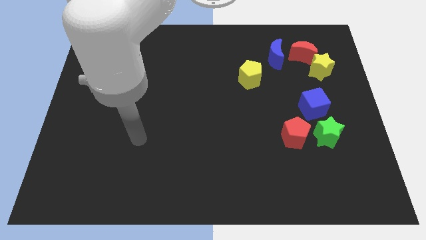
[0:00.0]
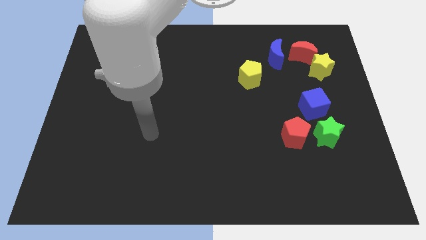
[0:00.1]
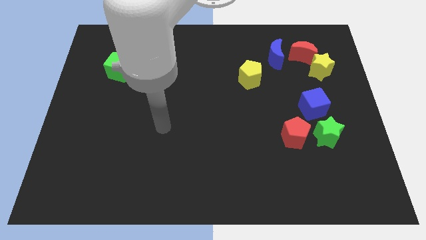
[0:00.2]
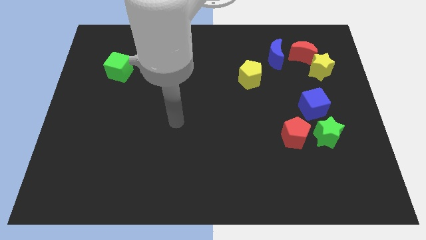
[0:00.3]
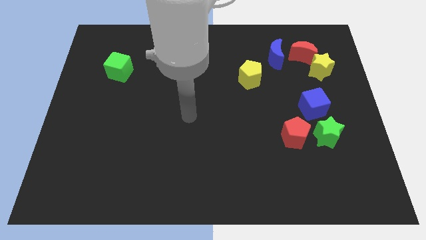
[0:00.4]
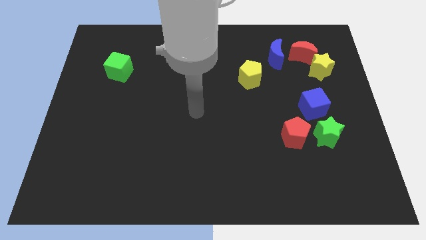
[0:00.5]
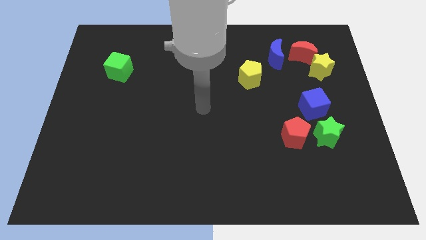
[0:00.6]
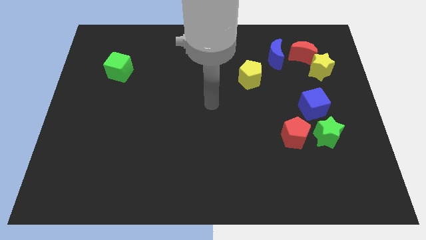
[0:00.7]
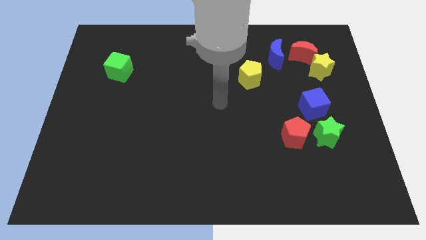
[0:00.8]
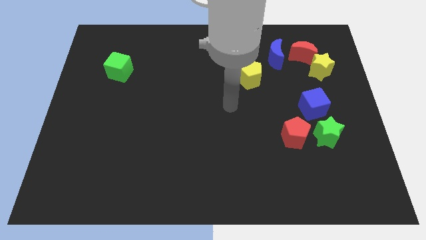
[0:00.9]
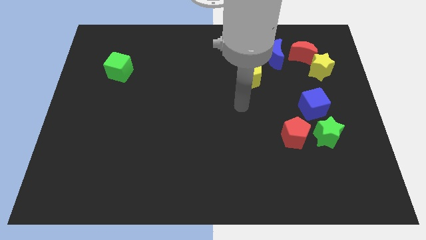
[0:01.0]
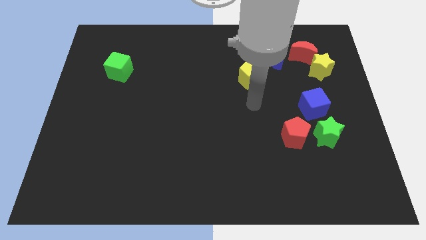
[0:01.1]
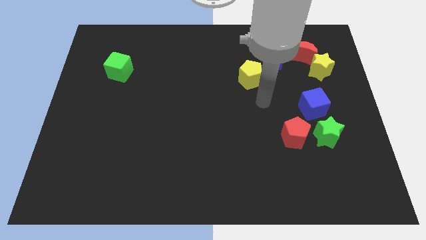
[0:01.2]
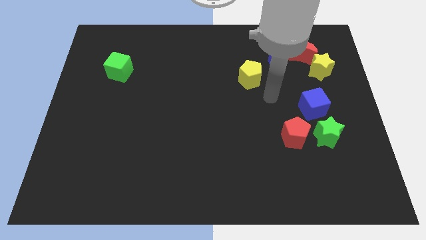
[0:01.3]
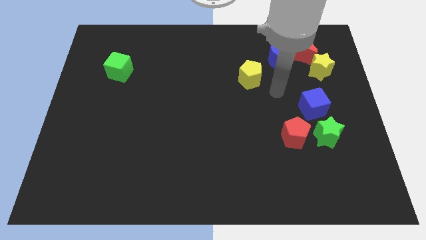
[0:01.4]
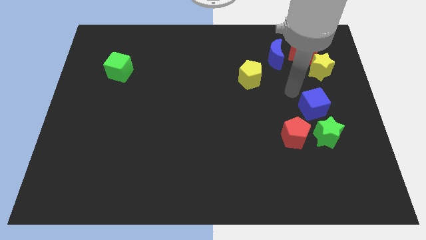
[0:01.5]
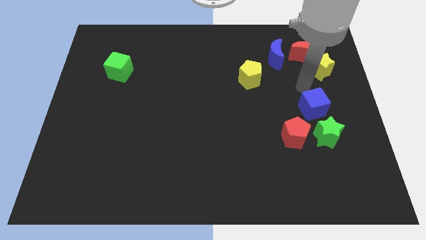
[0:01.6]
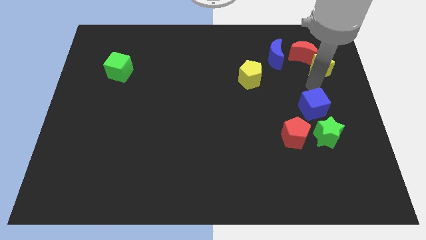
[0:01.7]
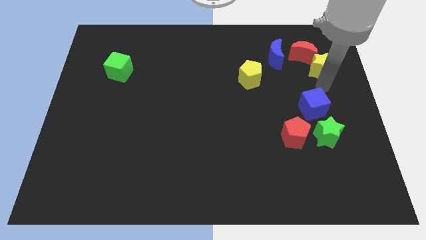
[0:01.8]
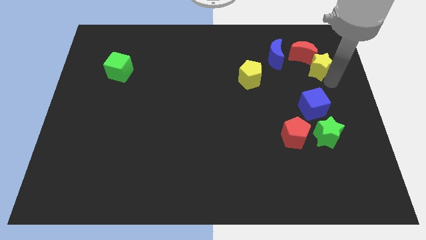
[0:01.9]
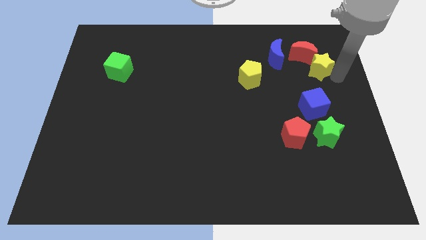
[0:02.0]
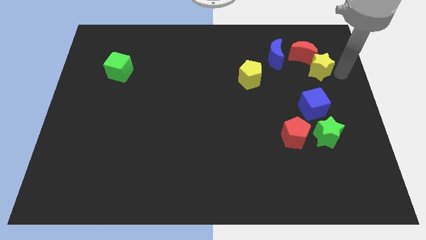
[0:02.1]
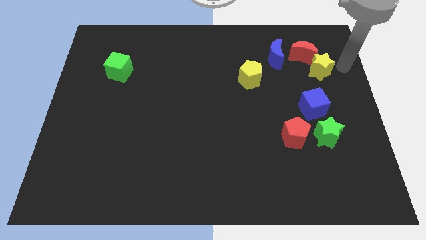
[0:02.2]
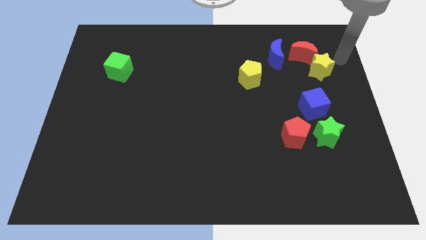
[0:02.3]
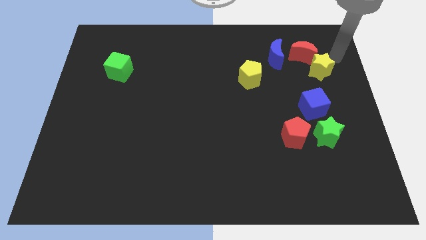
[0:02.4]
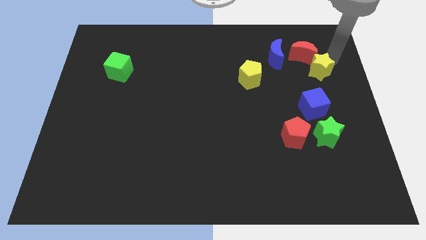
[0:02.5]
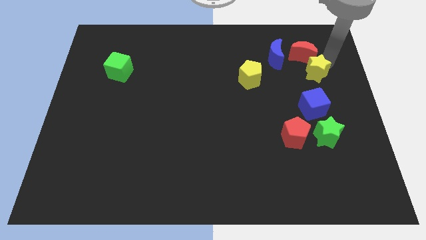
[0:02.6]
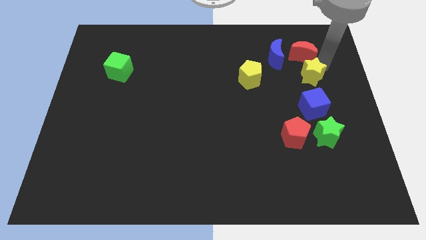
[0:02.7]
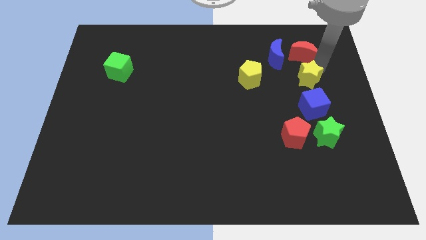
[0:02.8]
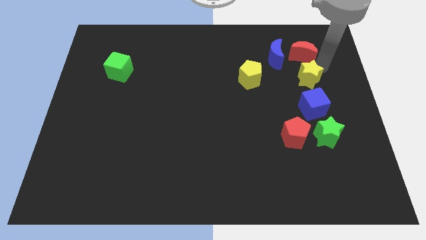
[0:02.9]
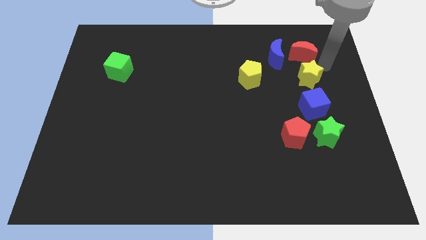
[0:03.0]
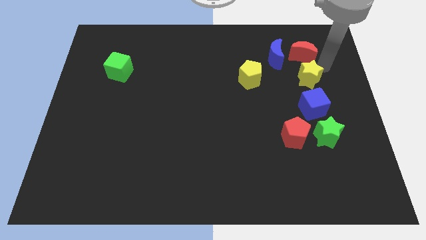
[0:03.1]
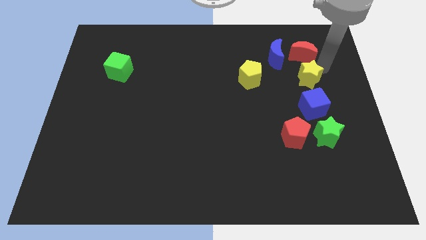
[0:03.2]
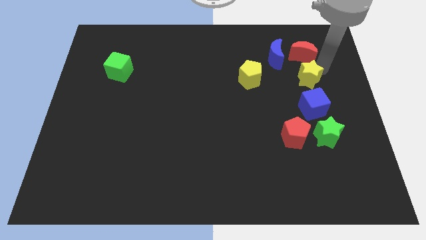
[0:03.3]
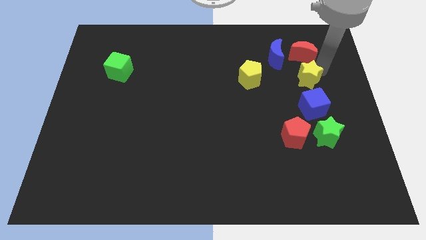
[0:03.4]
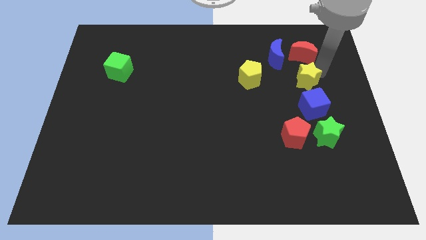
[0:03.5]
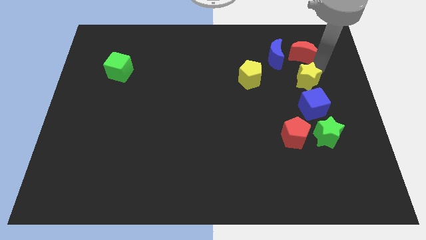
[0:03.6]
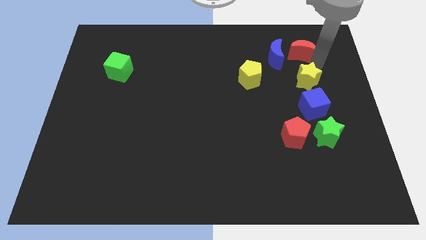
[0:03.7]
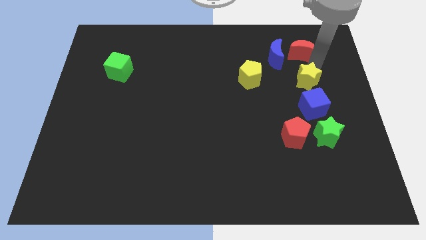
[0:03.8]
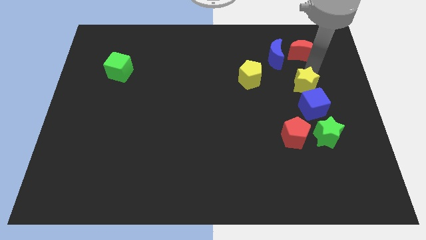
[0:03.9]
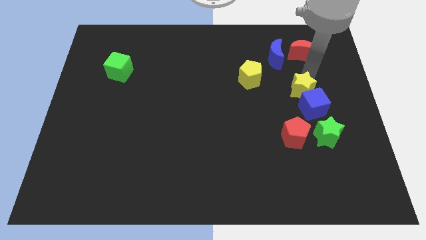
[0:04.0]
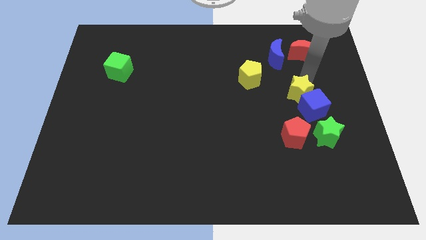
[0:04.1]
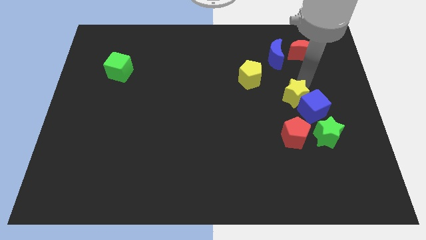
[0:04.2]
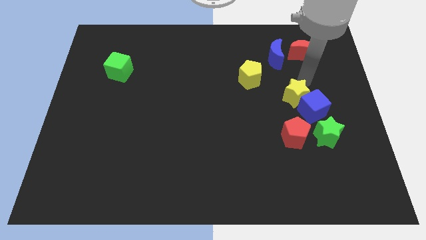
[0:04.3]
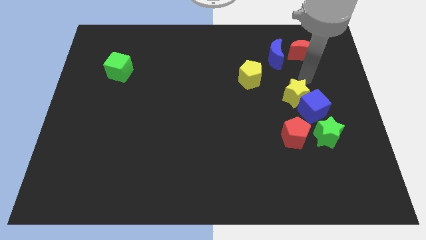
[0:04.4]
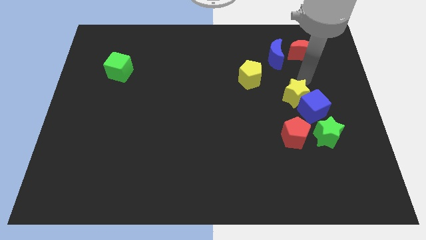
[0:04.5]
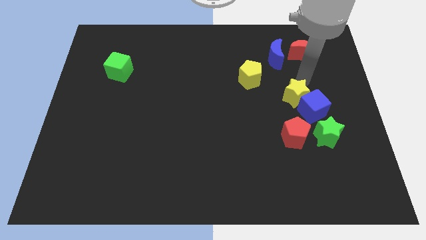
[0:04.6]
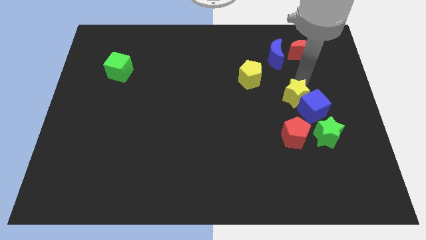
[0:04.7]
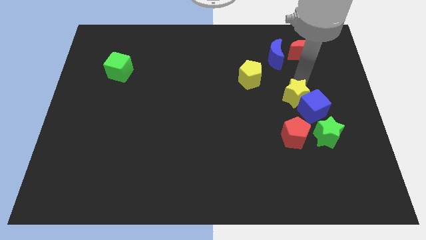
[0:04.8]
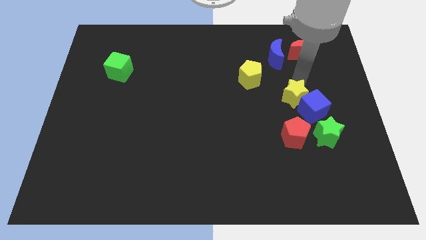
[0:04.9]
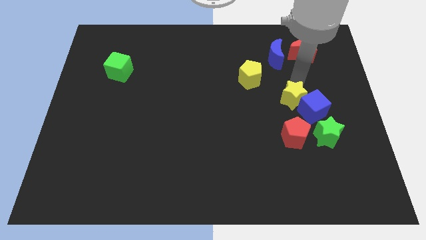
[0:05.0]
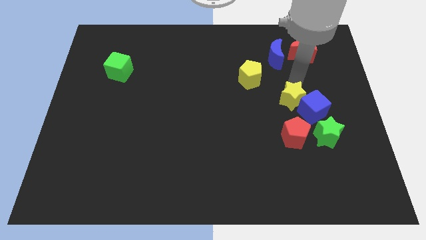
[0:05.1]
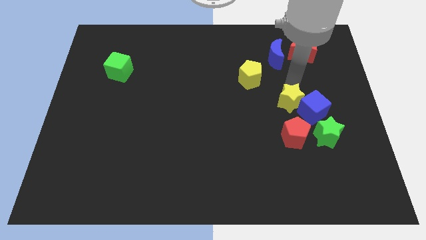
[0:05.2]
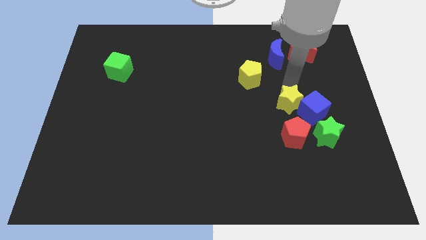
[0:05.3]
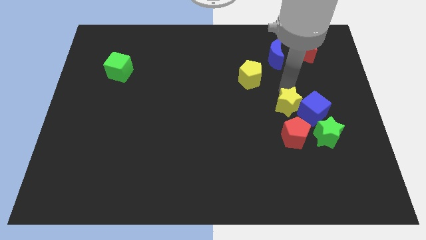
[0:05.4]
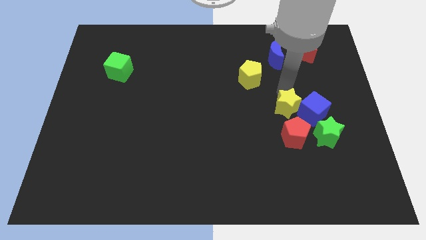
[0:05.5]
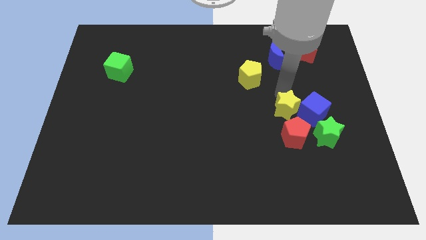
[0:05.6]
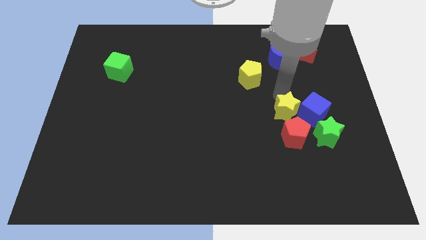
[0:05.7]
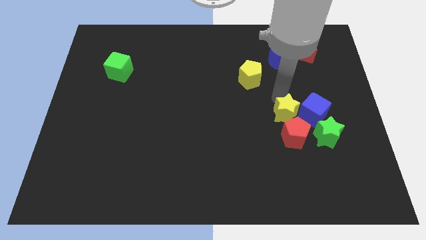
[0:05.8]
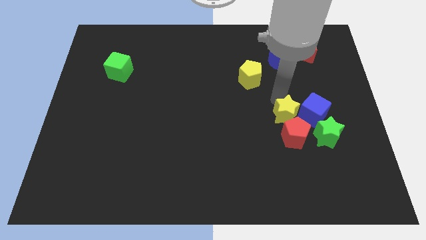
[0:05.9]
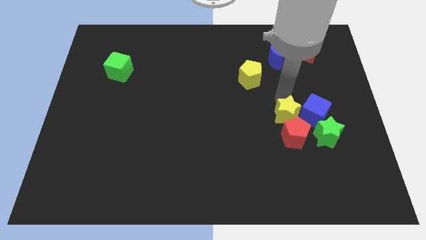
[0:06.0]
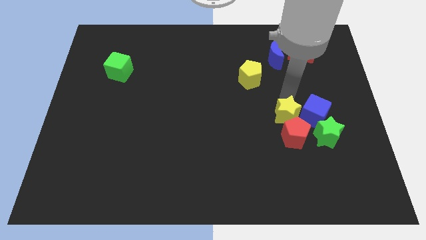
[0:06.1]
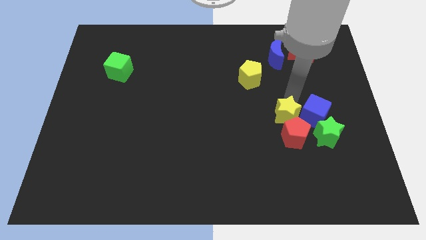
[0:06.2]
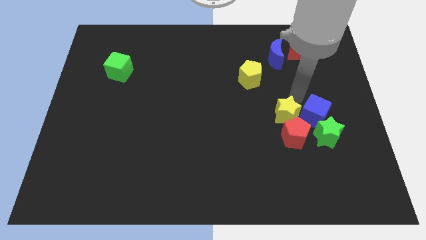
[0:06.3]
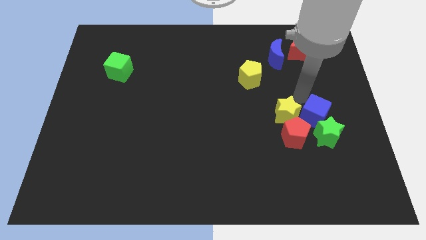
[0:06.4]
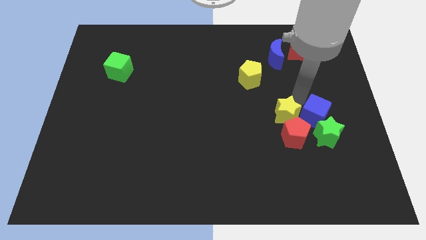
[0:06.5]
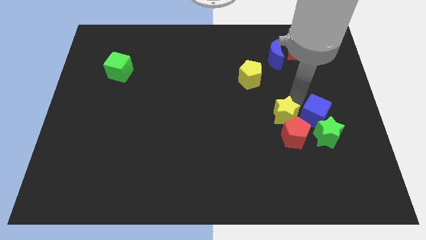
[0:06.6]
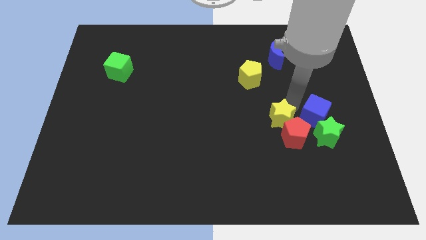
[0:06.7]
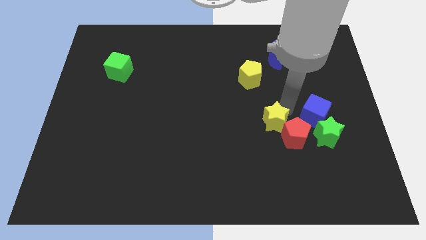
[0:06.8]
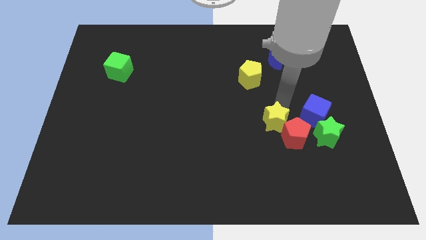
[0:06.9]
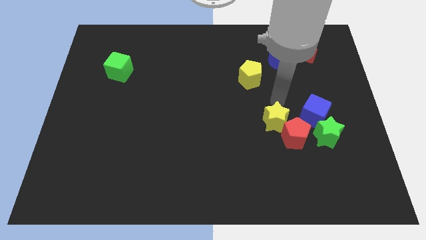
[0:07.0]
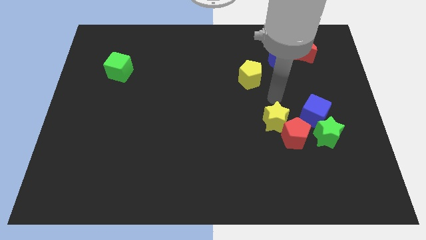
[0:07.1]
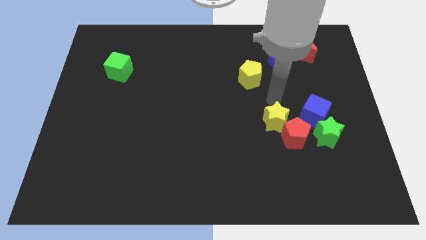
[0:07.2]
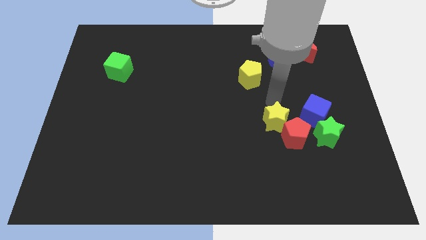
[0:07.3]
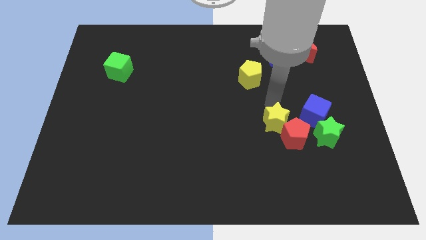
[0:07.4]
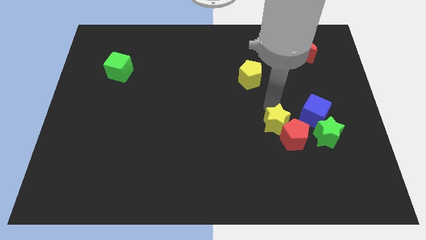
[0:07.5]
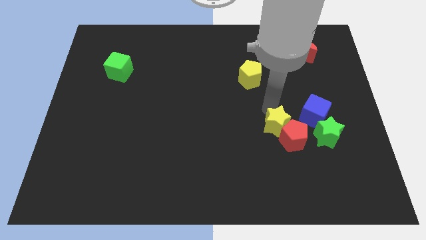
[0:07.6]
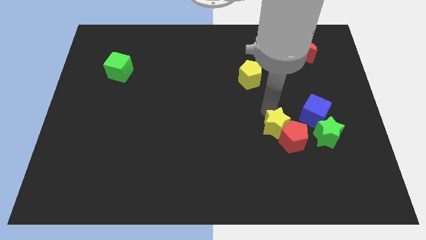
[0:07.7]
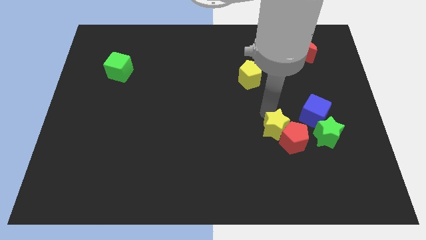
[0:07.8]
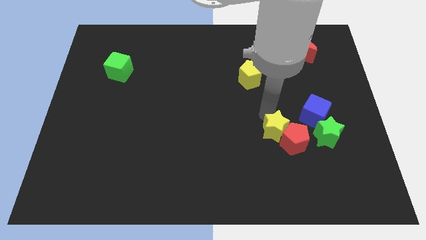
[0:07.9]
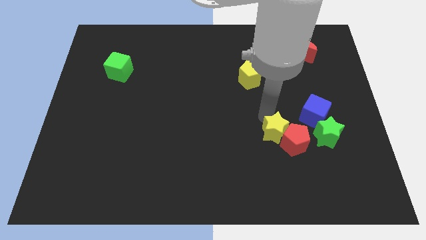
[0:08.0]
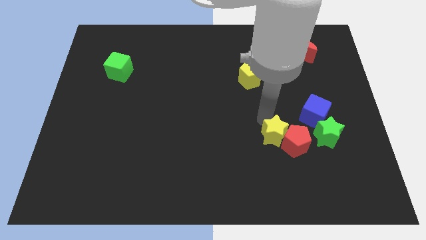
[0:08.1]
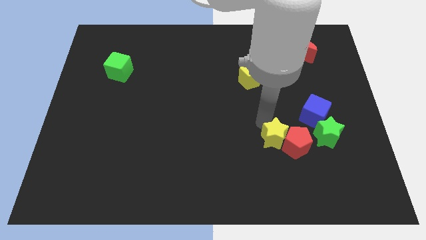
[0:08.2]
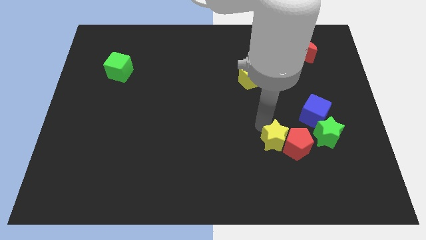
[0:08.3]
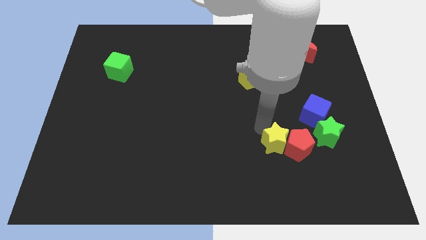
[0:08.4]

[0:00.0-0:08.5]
move the yellow star to the bottom left of the red pentagon
